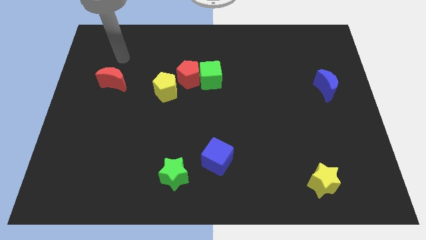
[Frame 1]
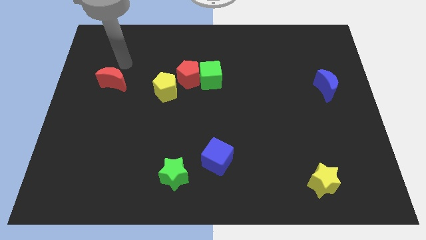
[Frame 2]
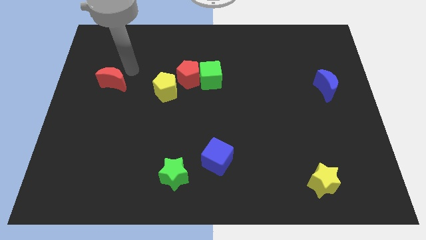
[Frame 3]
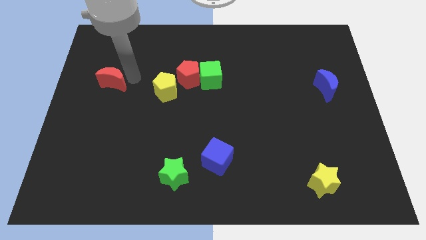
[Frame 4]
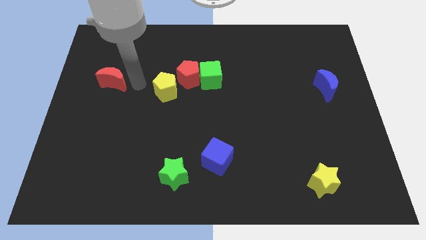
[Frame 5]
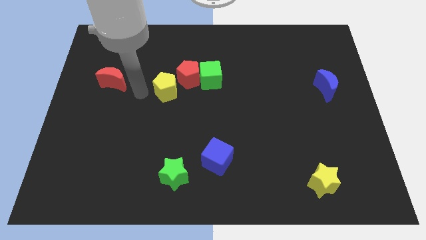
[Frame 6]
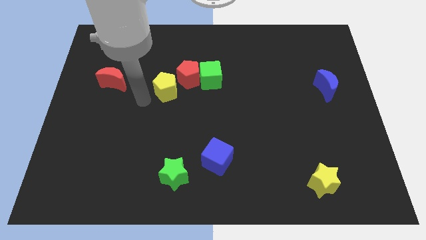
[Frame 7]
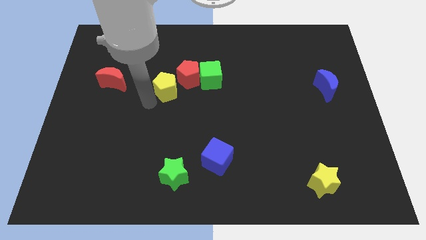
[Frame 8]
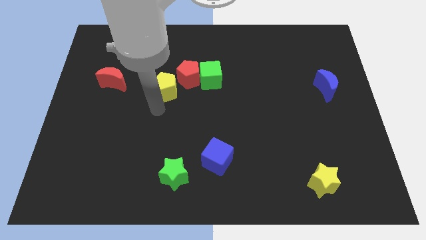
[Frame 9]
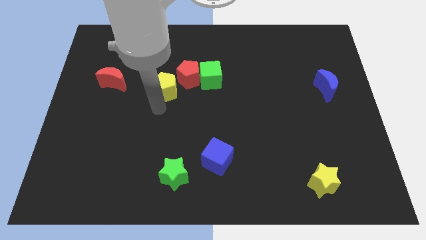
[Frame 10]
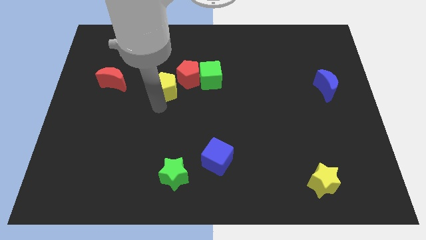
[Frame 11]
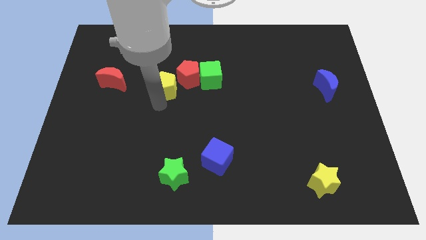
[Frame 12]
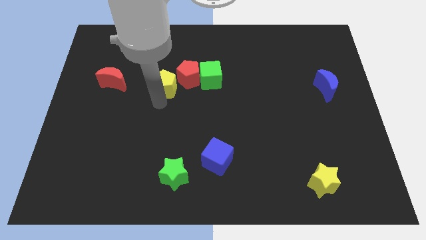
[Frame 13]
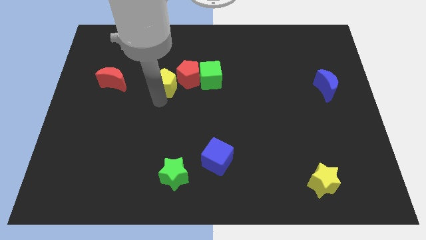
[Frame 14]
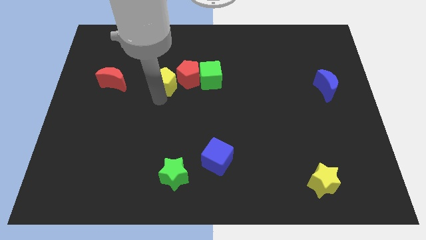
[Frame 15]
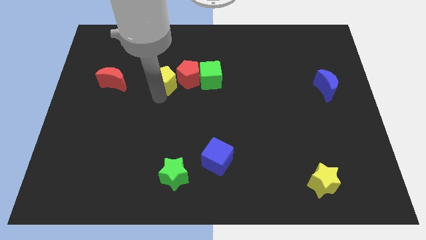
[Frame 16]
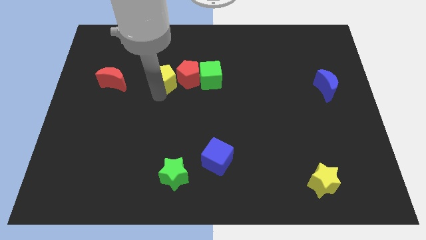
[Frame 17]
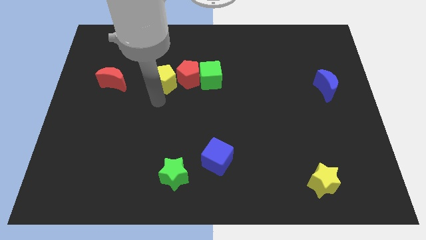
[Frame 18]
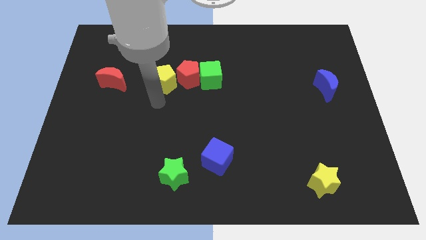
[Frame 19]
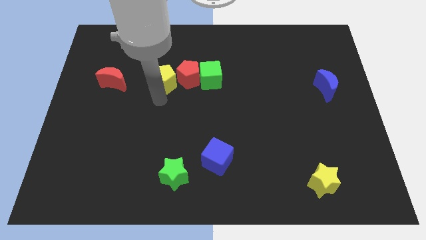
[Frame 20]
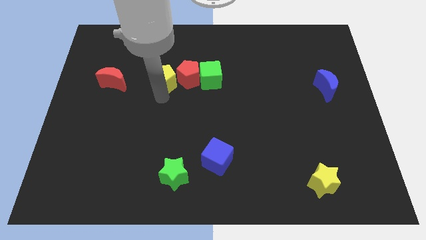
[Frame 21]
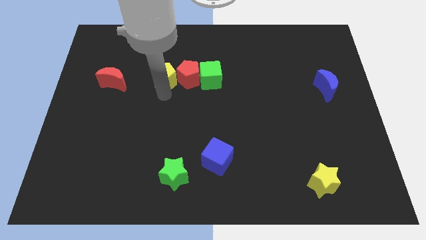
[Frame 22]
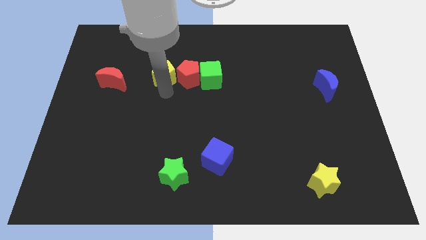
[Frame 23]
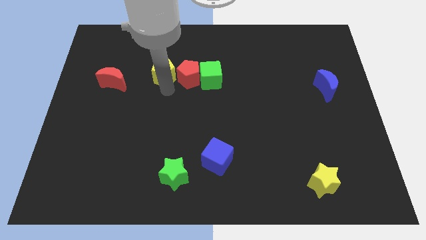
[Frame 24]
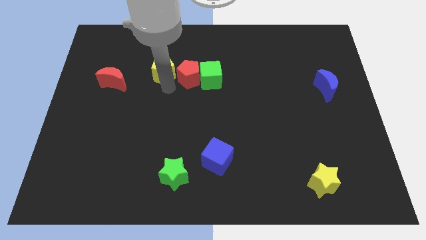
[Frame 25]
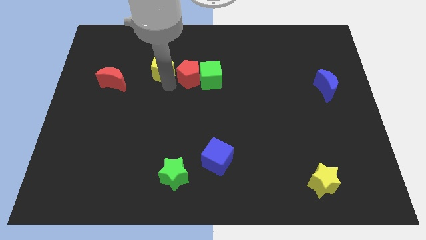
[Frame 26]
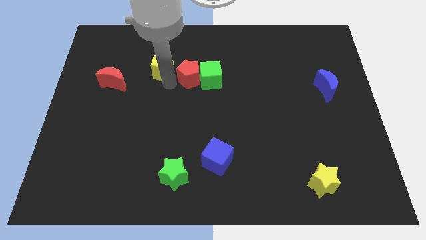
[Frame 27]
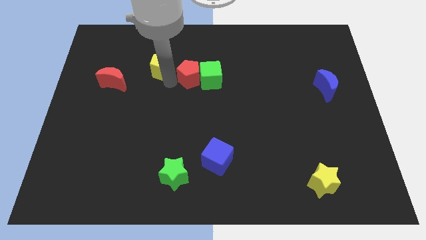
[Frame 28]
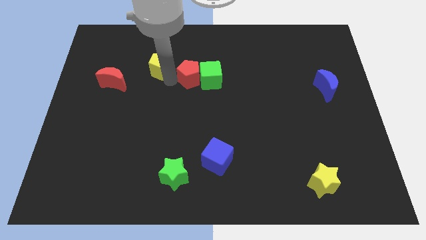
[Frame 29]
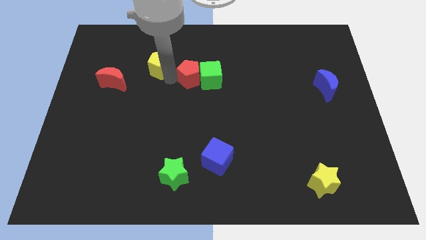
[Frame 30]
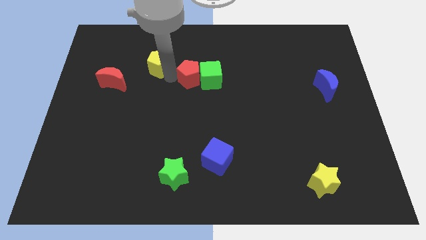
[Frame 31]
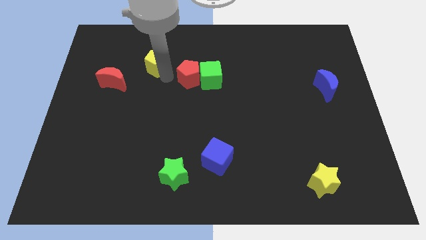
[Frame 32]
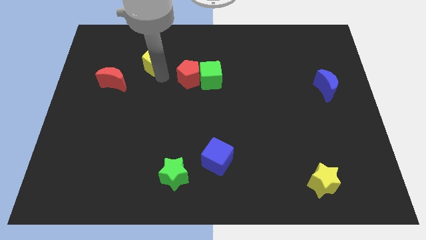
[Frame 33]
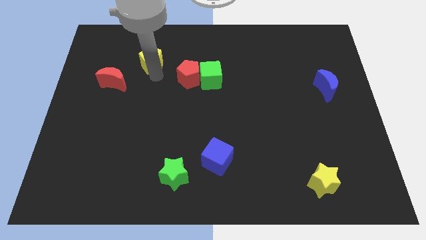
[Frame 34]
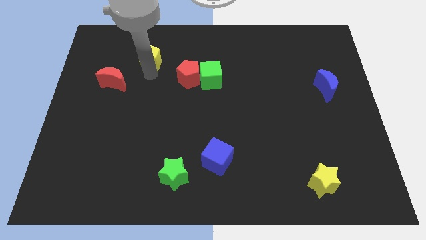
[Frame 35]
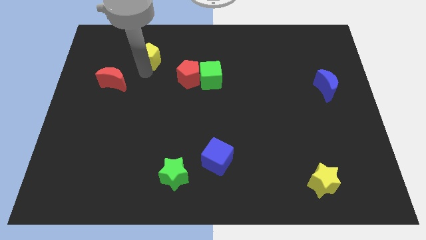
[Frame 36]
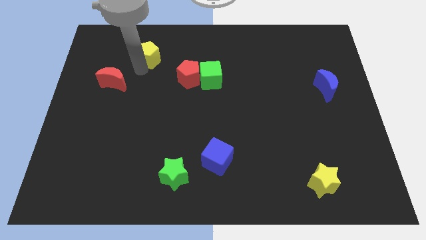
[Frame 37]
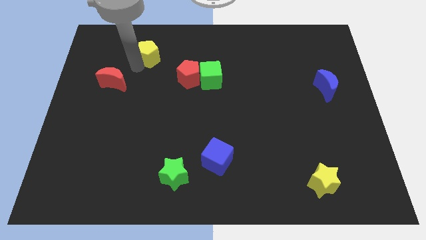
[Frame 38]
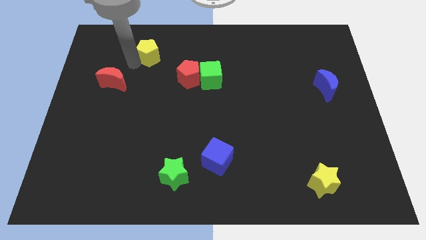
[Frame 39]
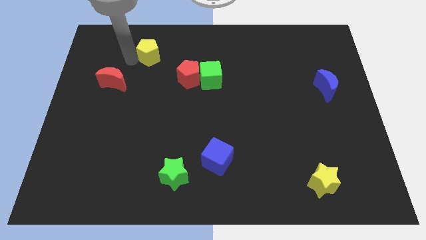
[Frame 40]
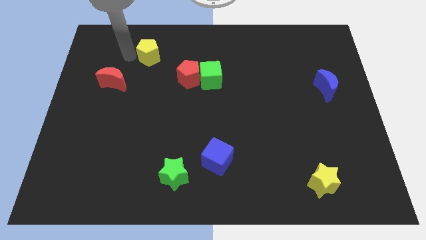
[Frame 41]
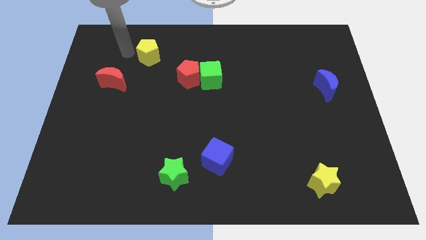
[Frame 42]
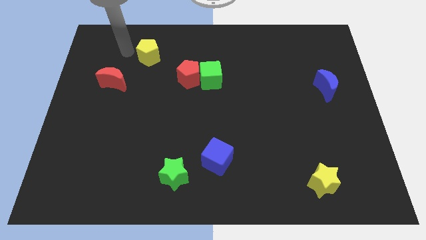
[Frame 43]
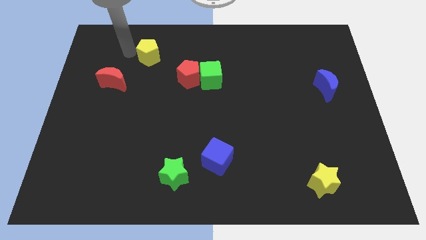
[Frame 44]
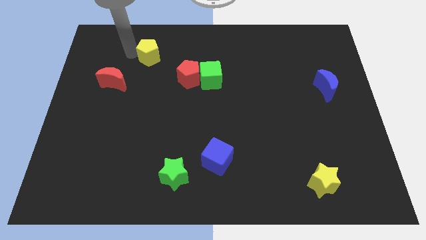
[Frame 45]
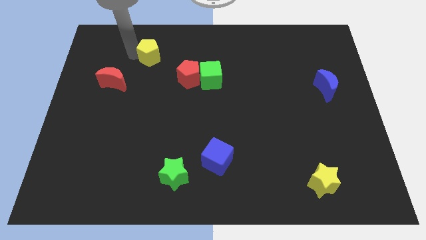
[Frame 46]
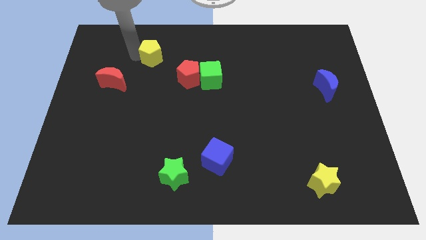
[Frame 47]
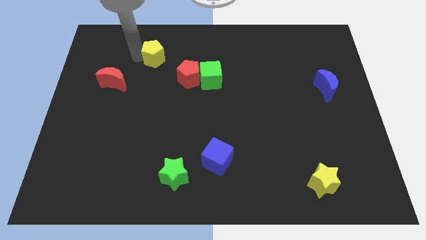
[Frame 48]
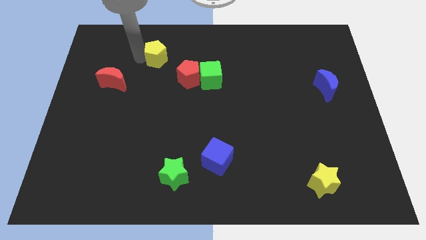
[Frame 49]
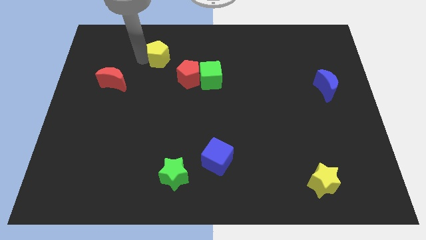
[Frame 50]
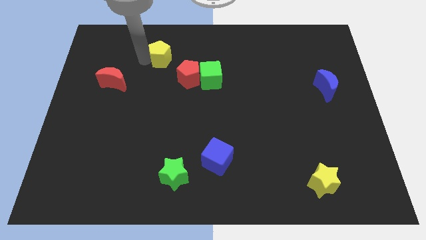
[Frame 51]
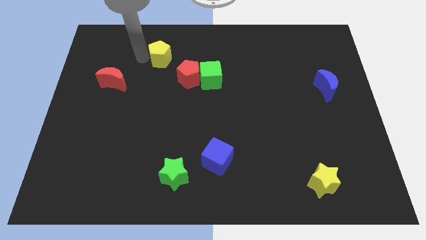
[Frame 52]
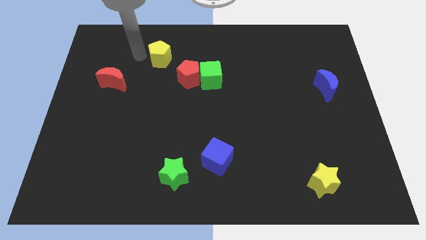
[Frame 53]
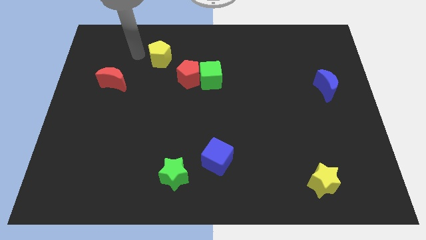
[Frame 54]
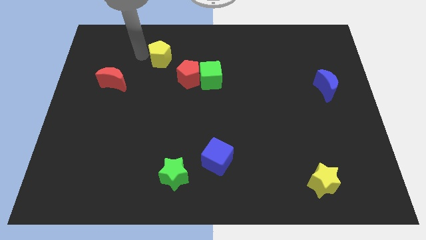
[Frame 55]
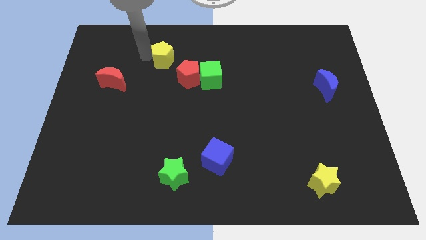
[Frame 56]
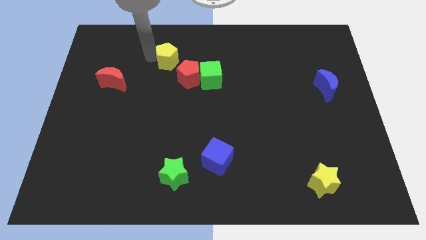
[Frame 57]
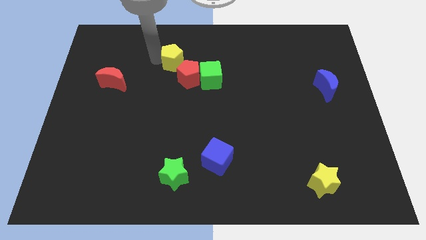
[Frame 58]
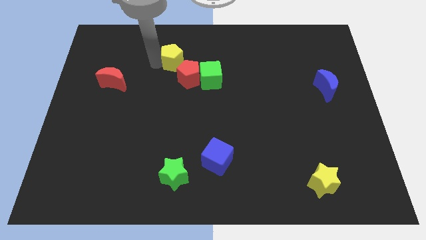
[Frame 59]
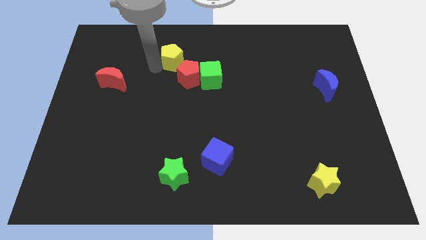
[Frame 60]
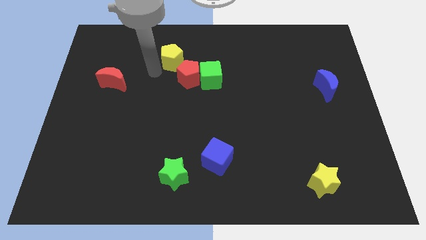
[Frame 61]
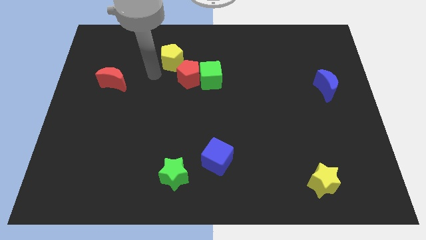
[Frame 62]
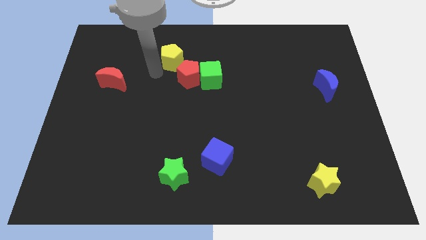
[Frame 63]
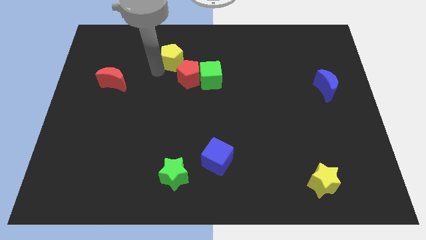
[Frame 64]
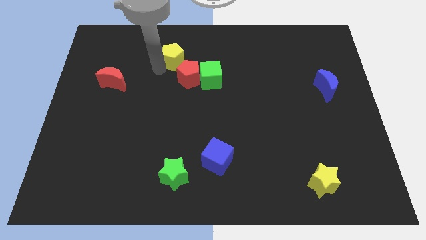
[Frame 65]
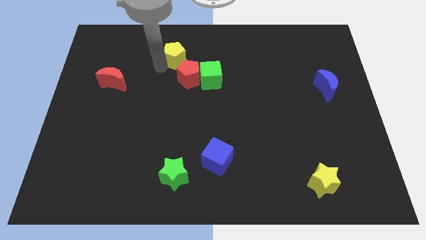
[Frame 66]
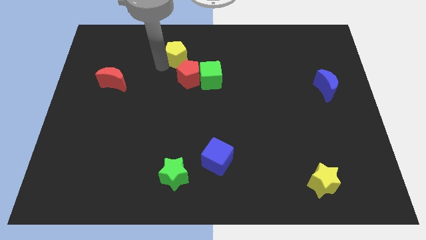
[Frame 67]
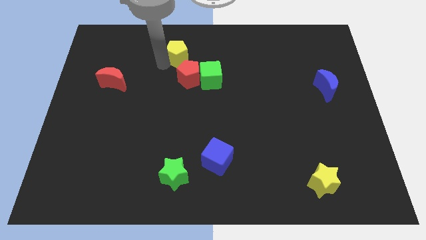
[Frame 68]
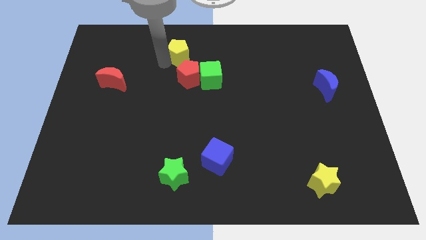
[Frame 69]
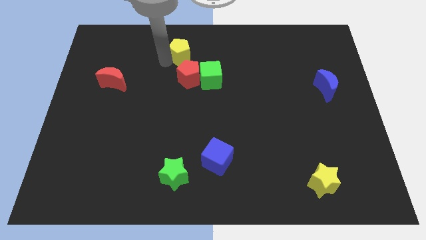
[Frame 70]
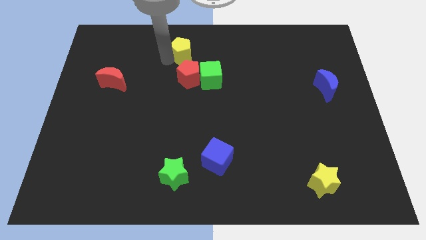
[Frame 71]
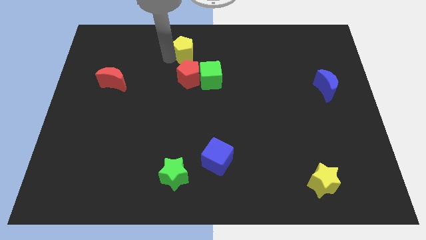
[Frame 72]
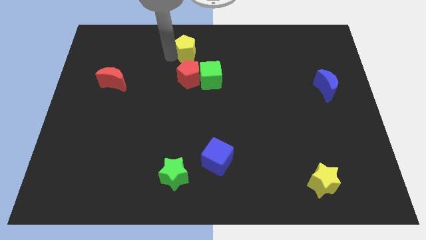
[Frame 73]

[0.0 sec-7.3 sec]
push the yellow pentagon to the top side
